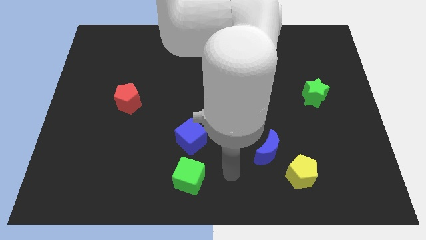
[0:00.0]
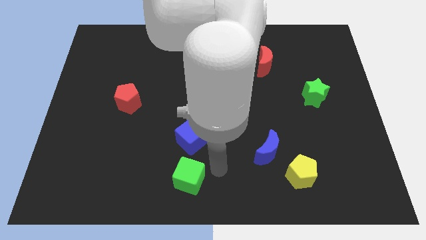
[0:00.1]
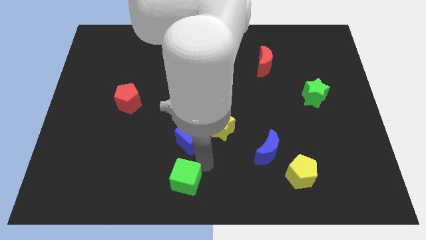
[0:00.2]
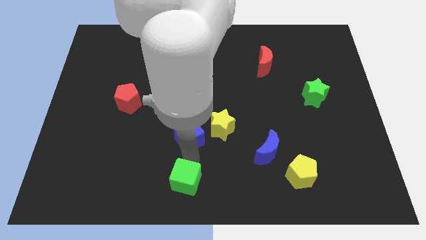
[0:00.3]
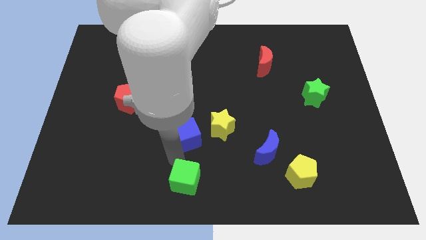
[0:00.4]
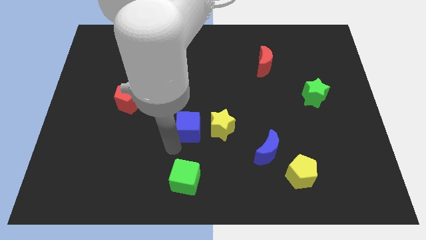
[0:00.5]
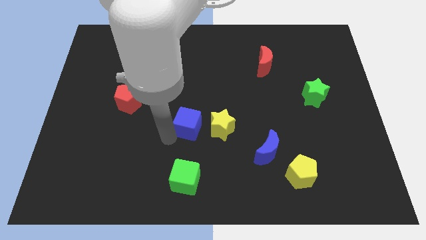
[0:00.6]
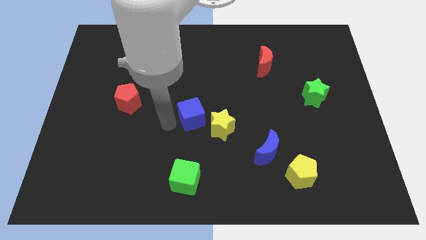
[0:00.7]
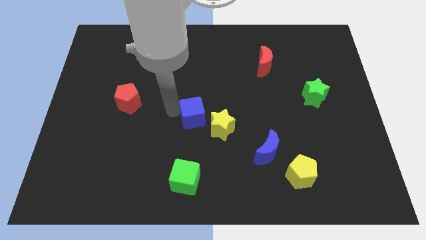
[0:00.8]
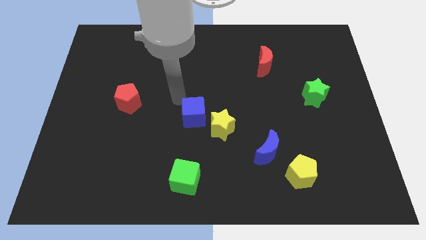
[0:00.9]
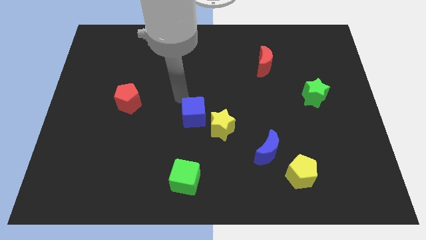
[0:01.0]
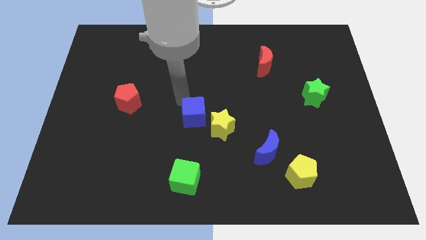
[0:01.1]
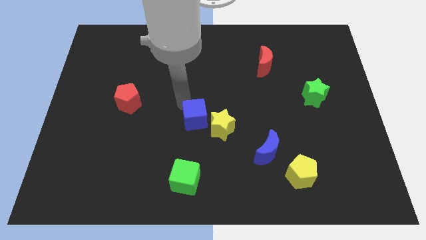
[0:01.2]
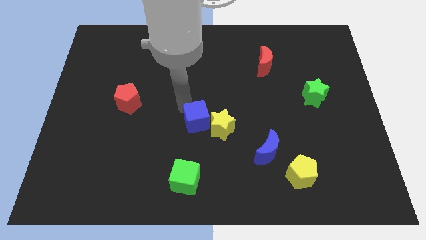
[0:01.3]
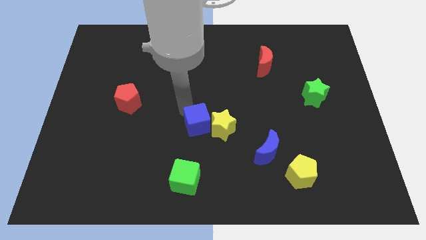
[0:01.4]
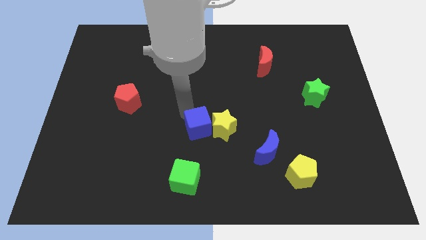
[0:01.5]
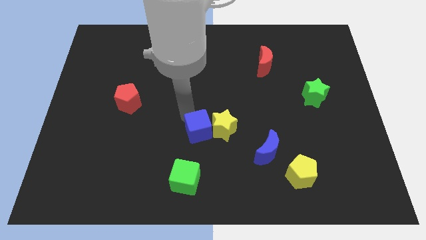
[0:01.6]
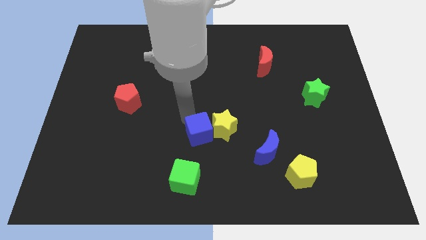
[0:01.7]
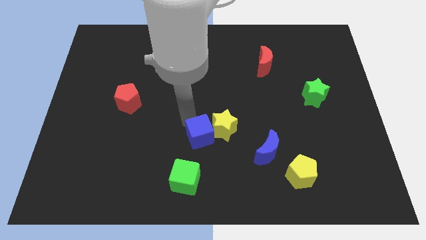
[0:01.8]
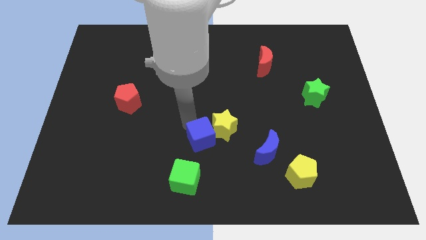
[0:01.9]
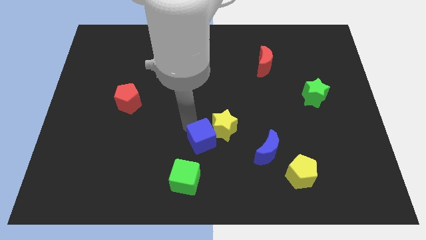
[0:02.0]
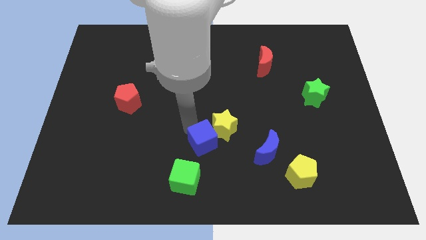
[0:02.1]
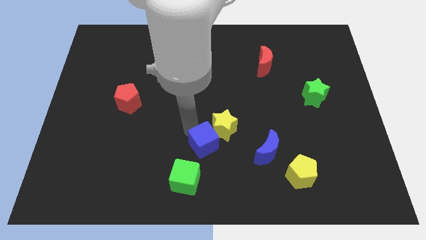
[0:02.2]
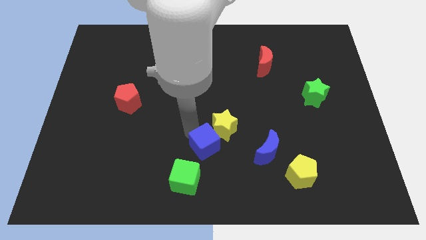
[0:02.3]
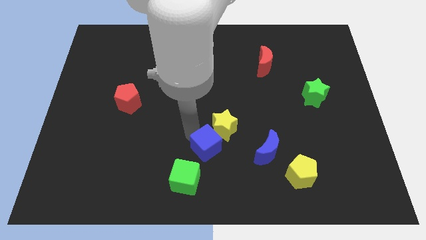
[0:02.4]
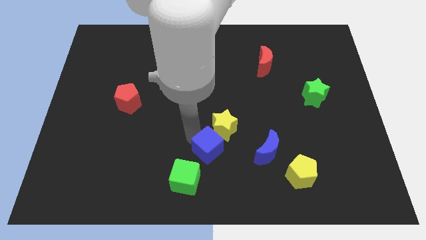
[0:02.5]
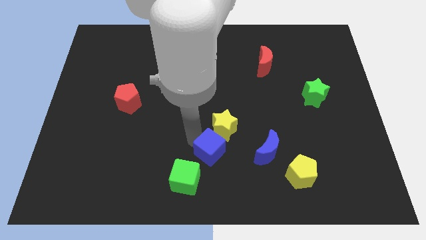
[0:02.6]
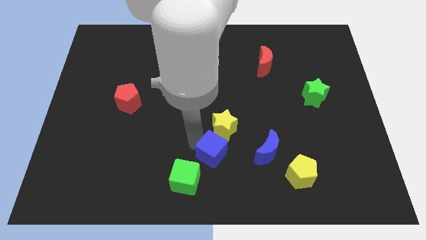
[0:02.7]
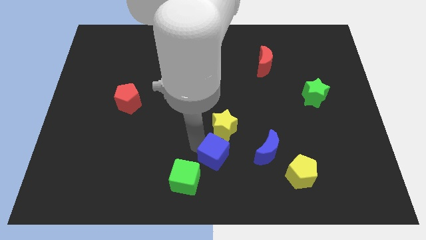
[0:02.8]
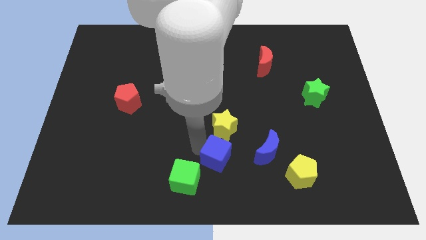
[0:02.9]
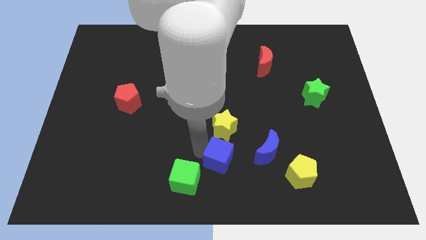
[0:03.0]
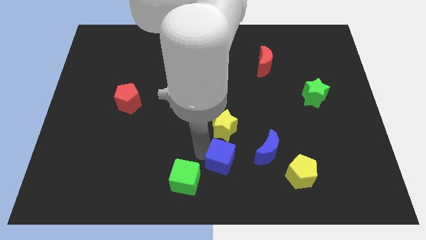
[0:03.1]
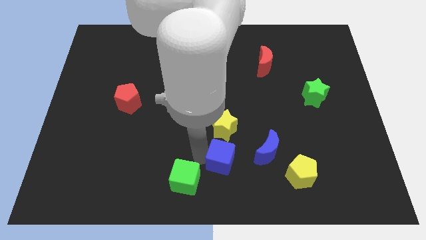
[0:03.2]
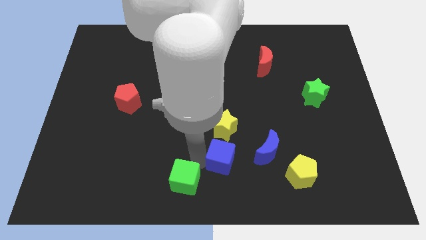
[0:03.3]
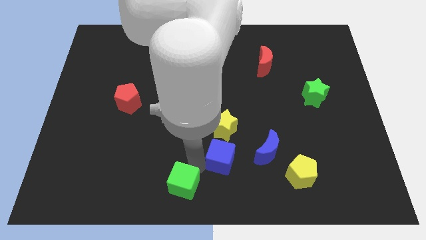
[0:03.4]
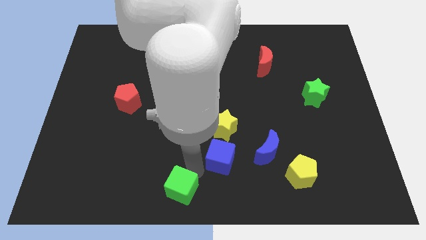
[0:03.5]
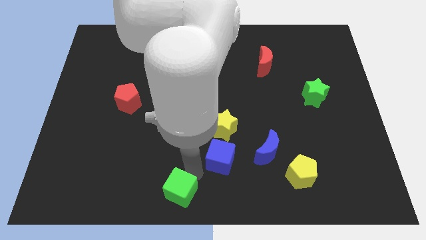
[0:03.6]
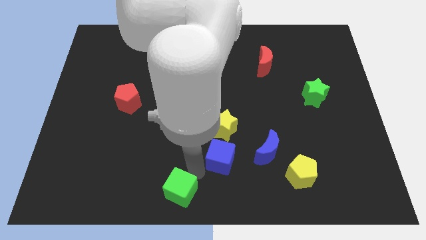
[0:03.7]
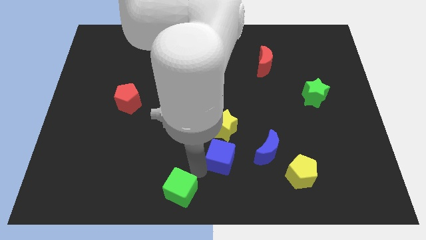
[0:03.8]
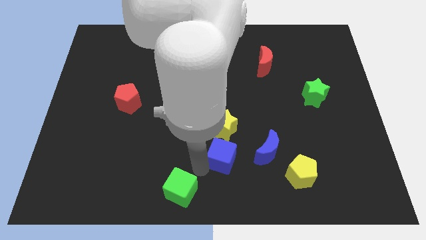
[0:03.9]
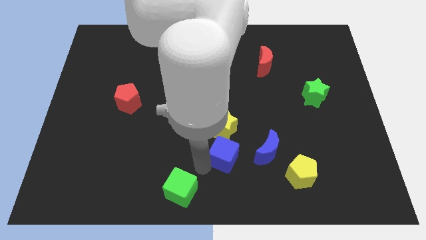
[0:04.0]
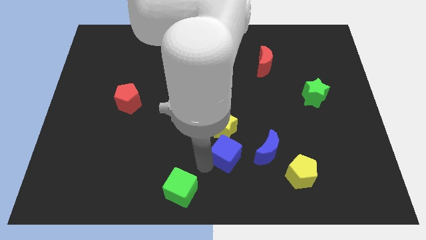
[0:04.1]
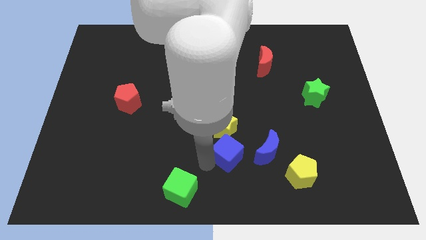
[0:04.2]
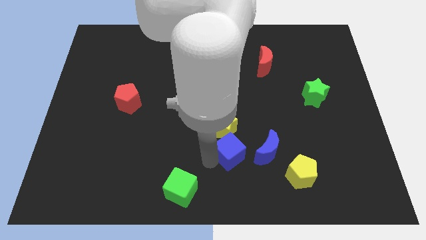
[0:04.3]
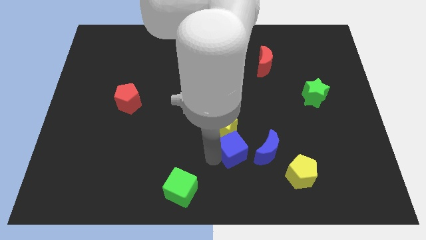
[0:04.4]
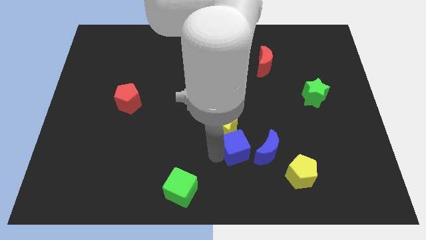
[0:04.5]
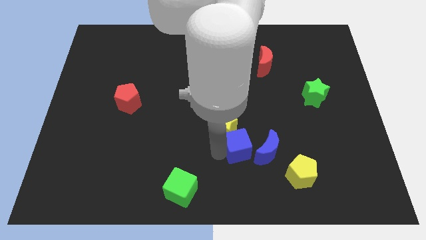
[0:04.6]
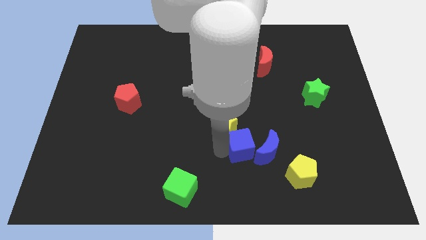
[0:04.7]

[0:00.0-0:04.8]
push the blue cube to the blue moon

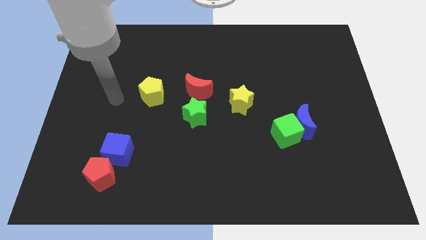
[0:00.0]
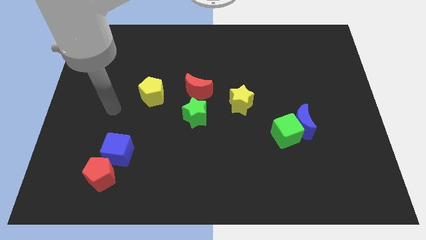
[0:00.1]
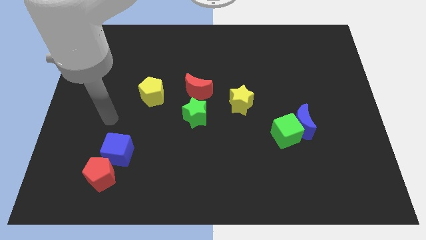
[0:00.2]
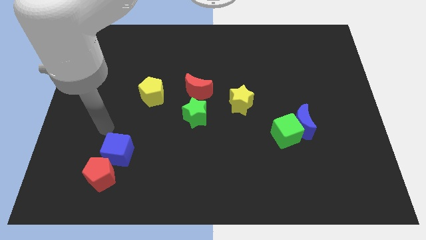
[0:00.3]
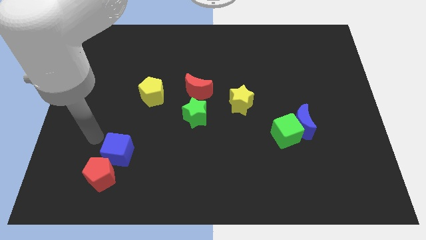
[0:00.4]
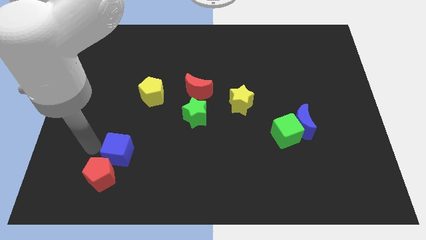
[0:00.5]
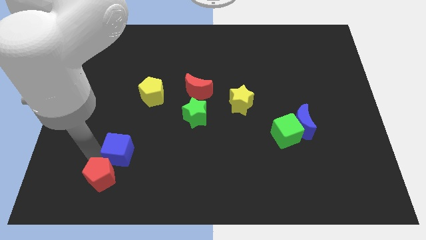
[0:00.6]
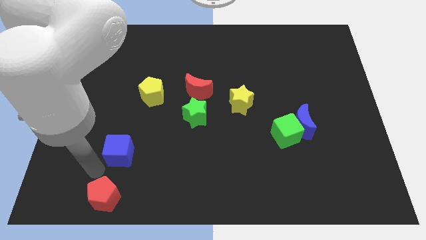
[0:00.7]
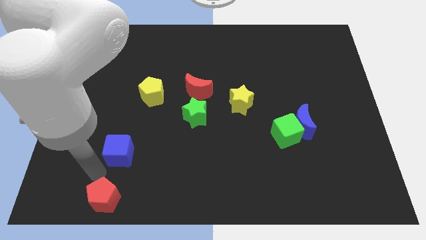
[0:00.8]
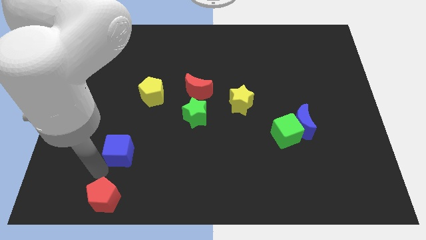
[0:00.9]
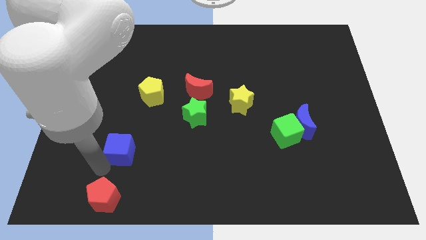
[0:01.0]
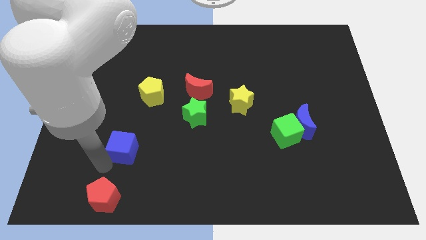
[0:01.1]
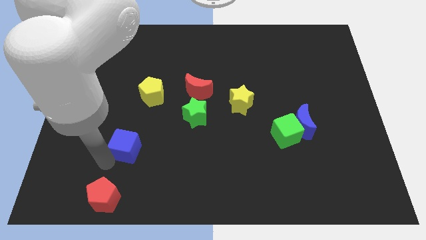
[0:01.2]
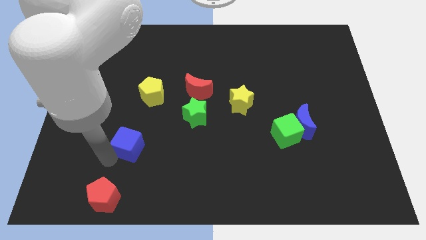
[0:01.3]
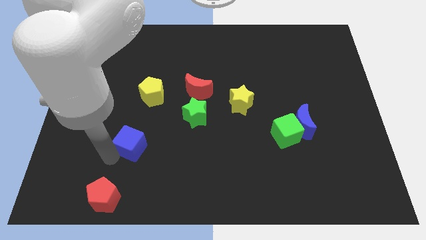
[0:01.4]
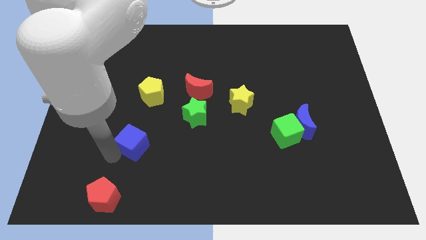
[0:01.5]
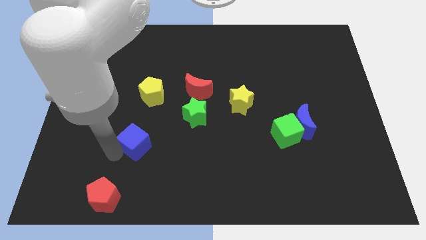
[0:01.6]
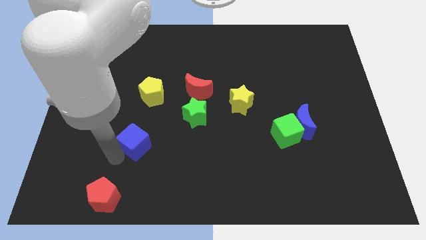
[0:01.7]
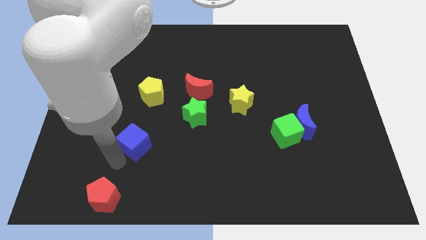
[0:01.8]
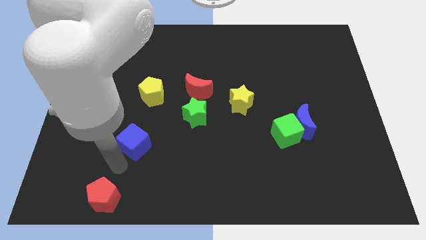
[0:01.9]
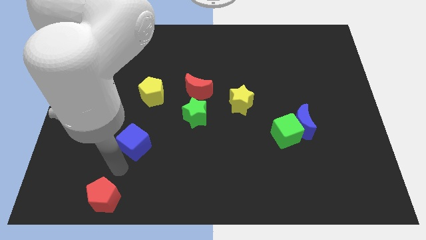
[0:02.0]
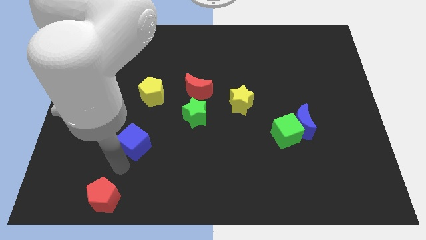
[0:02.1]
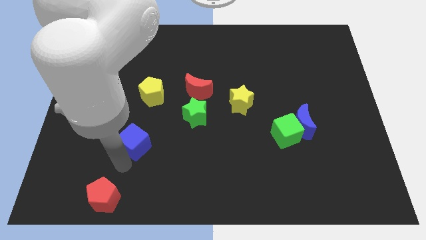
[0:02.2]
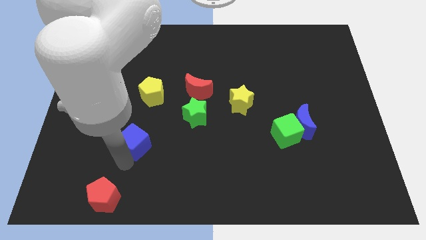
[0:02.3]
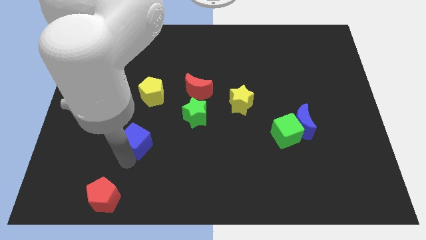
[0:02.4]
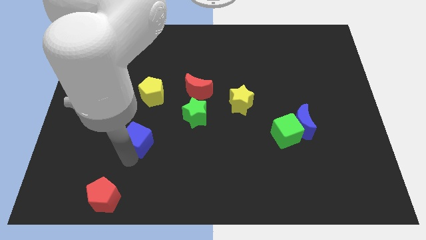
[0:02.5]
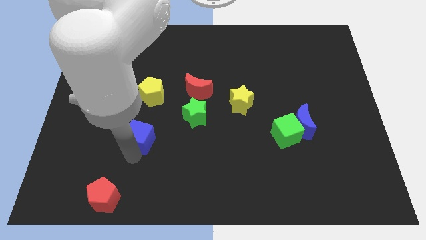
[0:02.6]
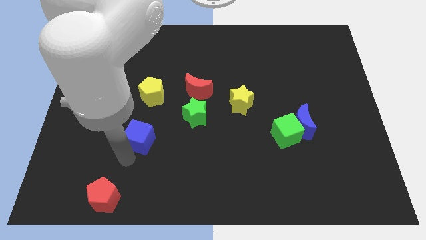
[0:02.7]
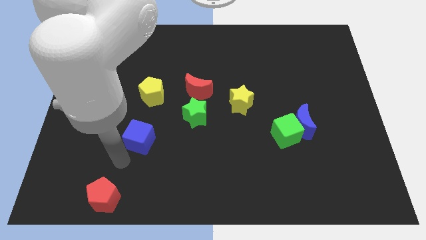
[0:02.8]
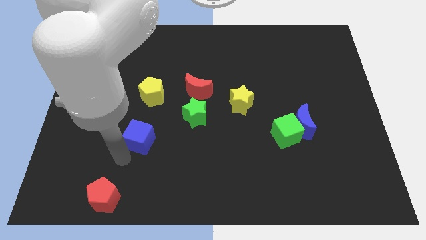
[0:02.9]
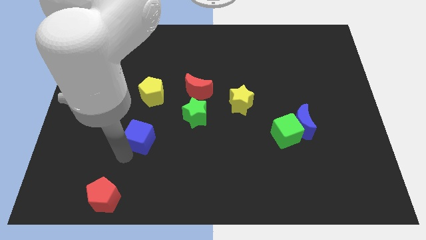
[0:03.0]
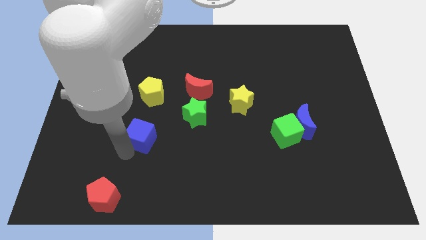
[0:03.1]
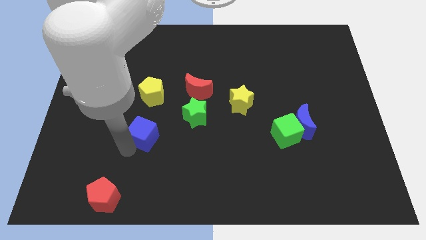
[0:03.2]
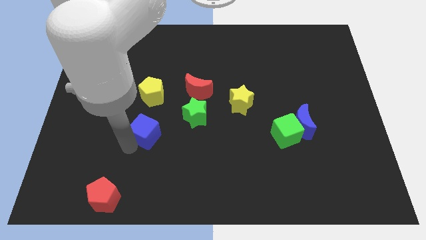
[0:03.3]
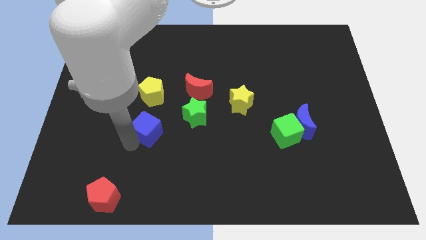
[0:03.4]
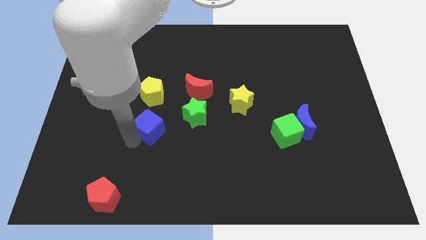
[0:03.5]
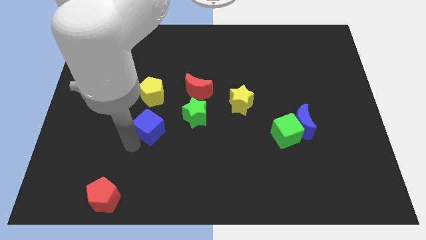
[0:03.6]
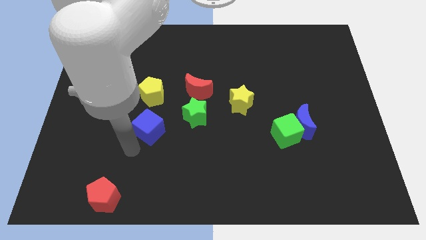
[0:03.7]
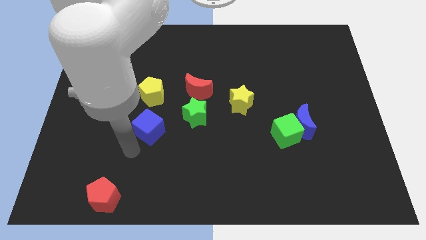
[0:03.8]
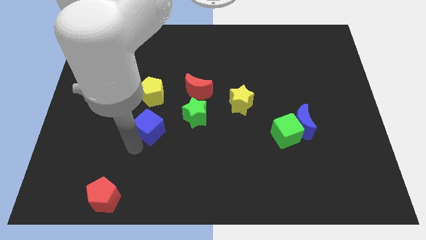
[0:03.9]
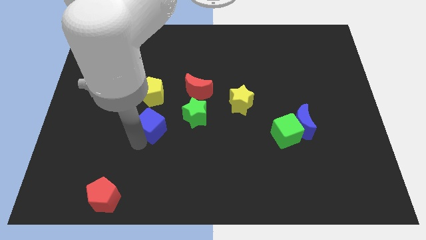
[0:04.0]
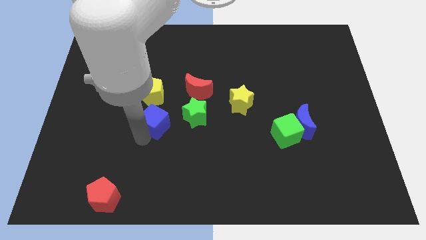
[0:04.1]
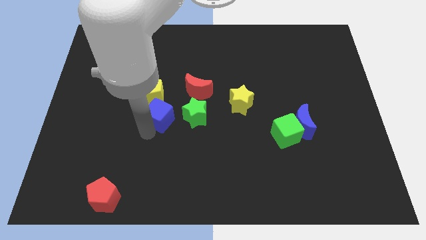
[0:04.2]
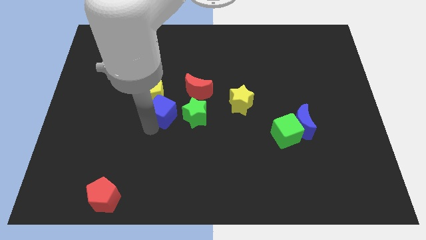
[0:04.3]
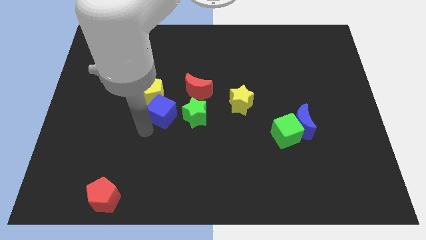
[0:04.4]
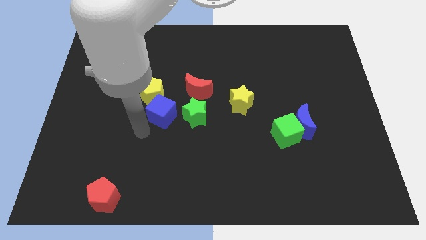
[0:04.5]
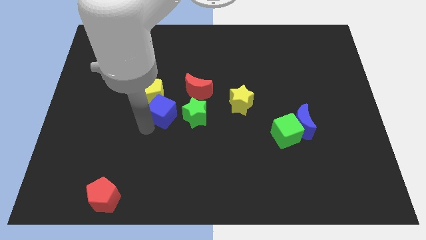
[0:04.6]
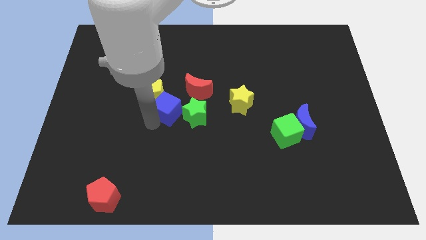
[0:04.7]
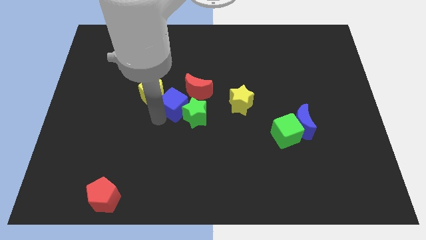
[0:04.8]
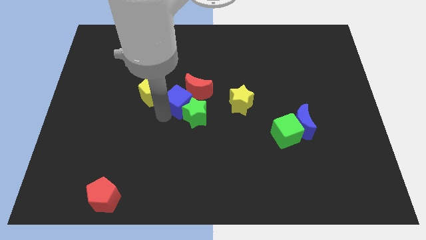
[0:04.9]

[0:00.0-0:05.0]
put the blue cube to the red moon
